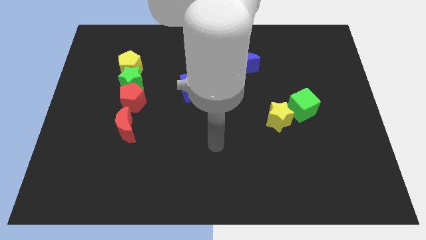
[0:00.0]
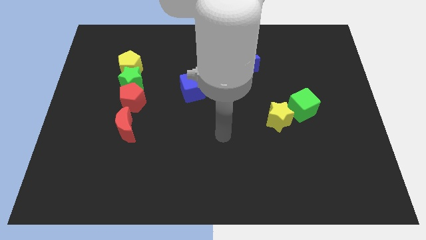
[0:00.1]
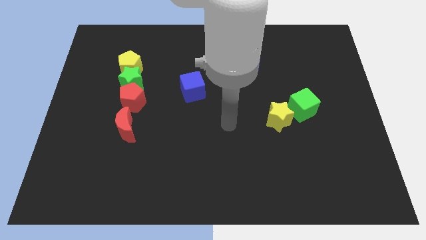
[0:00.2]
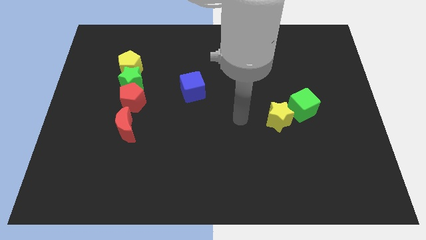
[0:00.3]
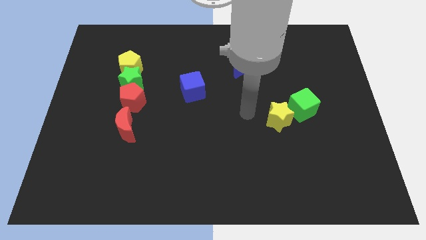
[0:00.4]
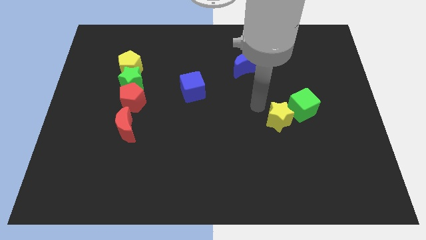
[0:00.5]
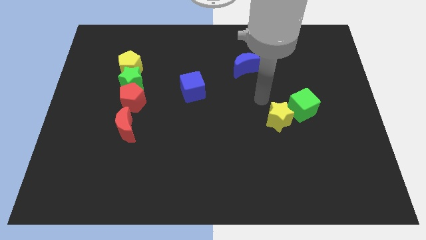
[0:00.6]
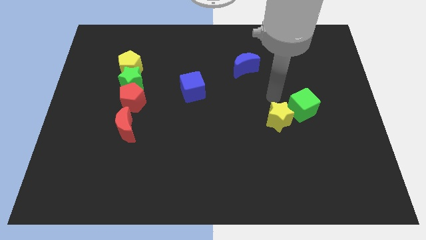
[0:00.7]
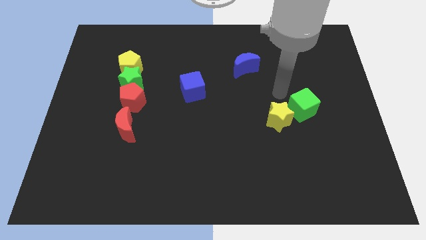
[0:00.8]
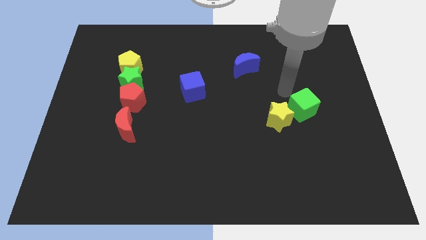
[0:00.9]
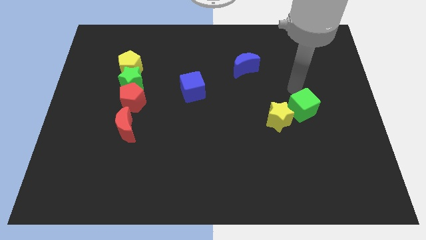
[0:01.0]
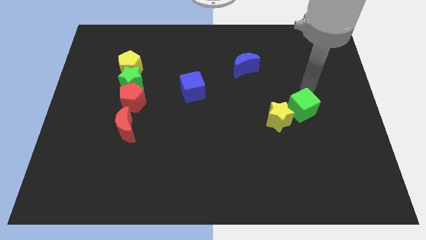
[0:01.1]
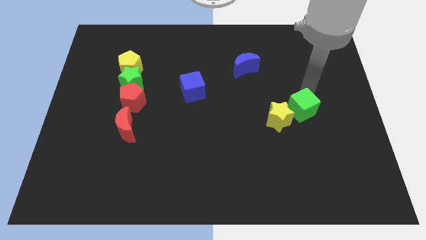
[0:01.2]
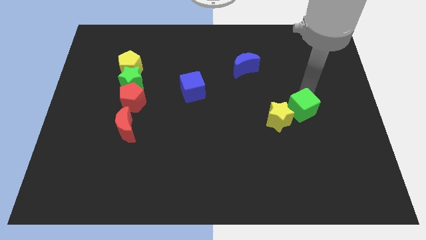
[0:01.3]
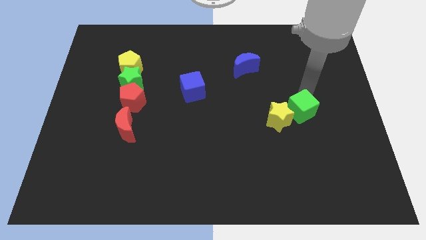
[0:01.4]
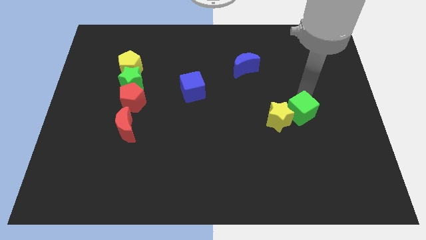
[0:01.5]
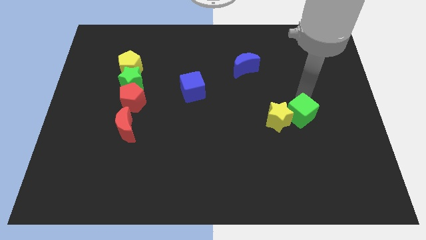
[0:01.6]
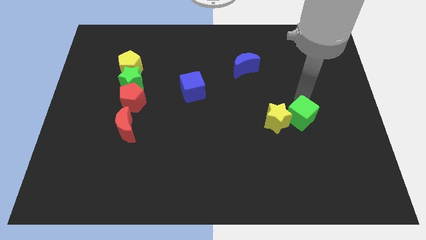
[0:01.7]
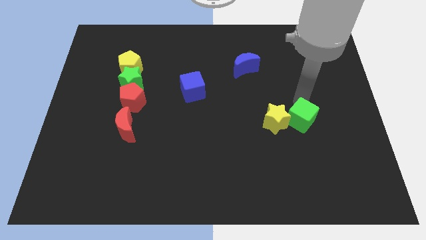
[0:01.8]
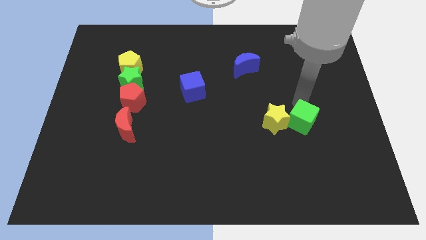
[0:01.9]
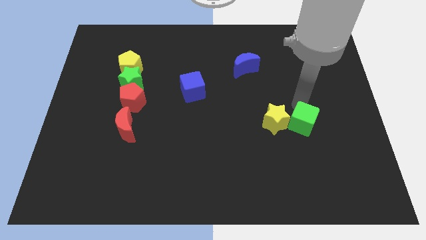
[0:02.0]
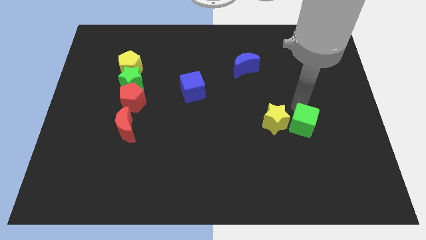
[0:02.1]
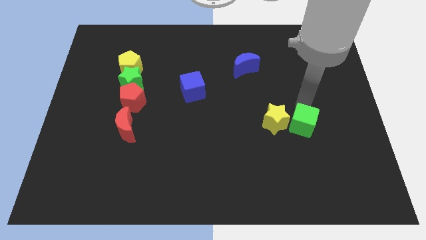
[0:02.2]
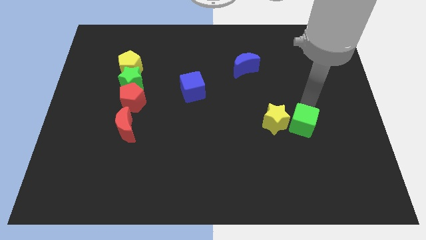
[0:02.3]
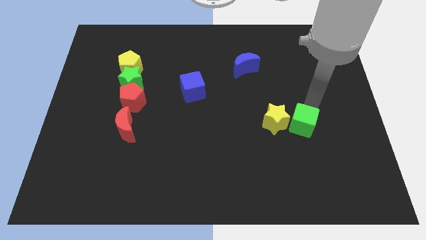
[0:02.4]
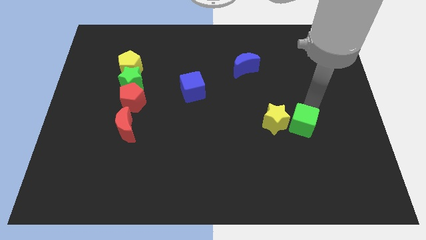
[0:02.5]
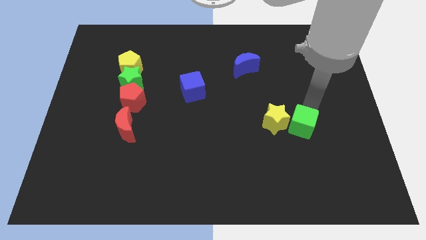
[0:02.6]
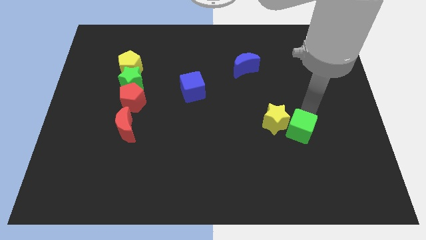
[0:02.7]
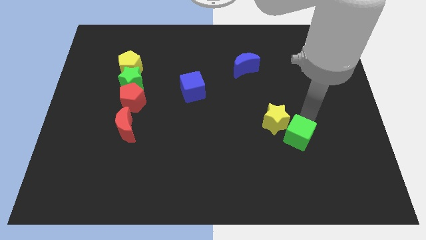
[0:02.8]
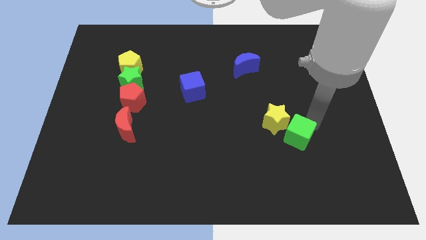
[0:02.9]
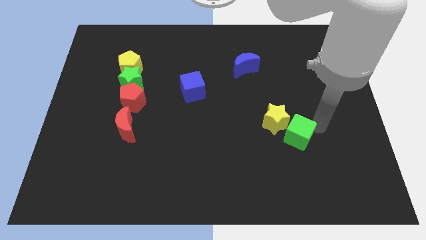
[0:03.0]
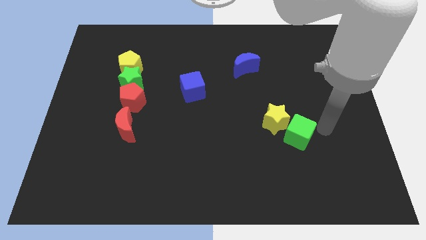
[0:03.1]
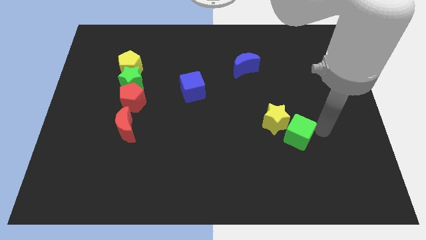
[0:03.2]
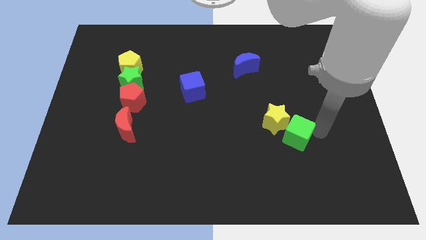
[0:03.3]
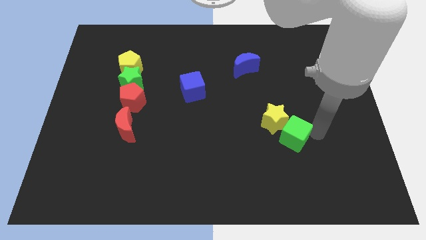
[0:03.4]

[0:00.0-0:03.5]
slide the green cube a little bit diagonally down and to the left

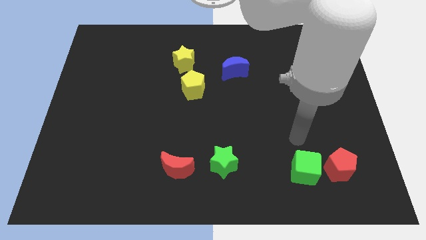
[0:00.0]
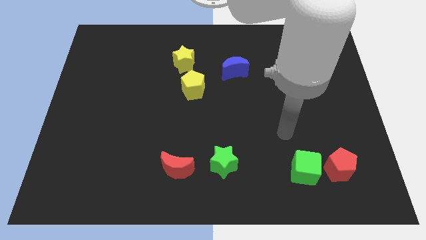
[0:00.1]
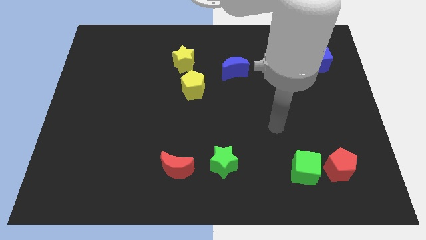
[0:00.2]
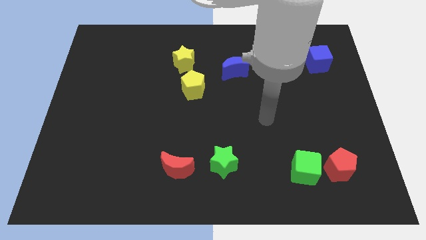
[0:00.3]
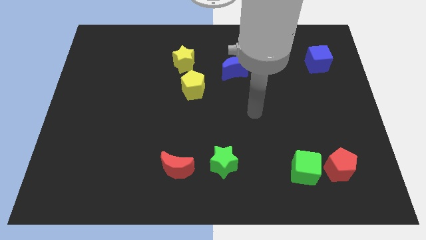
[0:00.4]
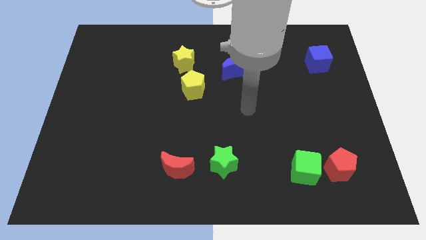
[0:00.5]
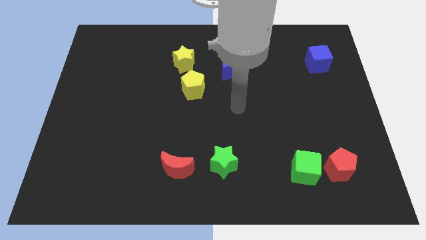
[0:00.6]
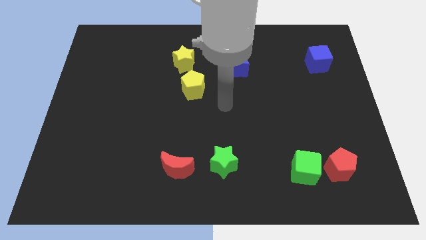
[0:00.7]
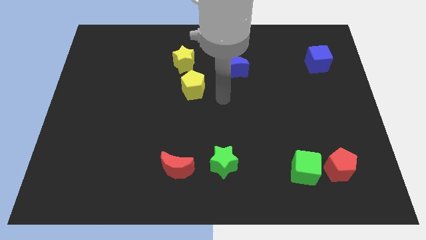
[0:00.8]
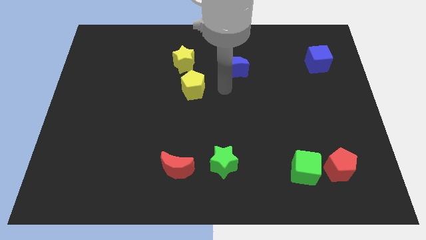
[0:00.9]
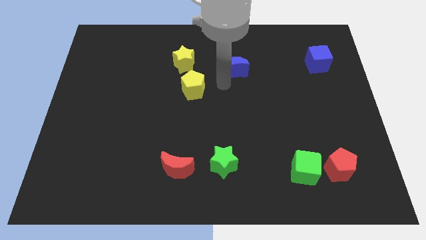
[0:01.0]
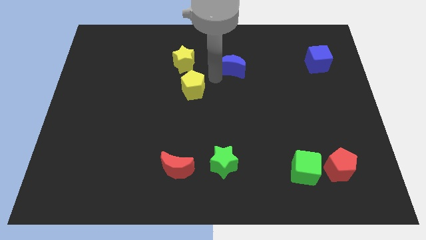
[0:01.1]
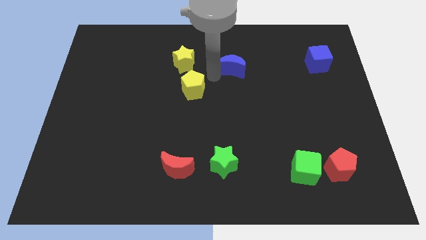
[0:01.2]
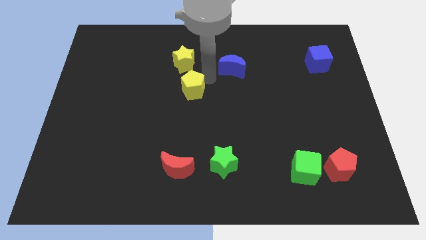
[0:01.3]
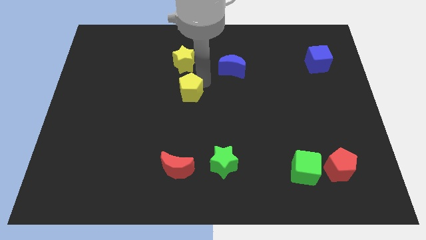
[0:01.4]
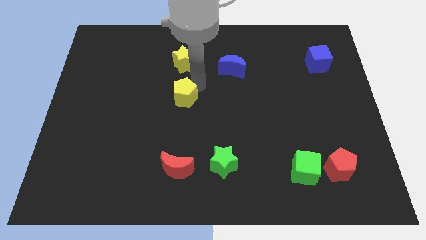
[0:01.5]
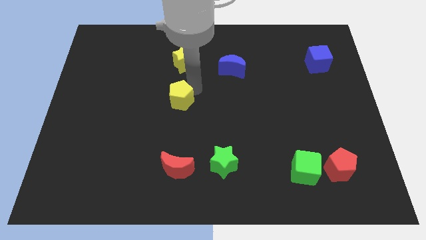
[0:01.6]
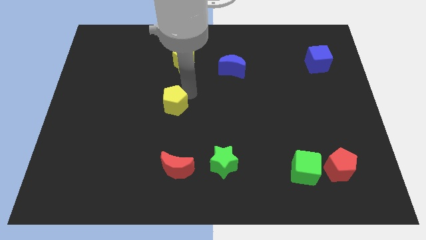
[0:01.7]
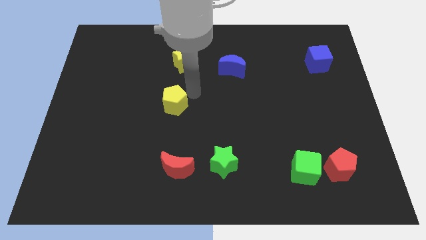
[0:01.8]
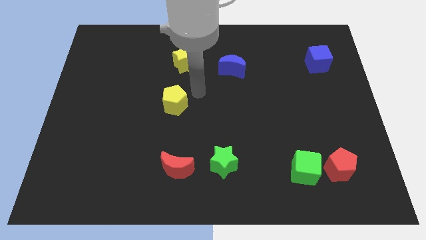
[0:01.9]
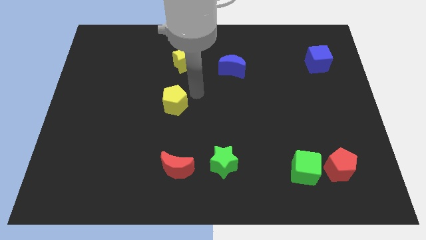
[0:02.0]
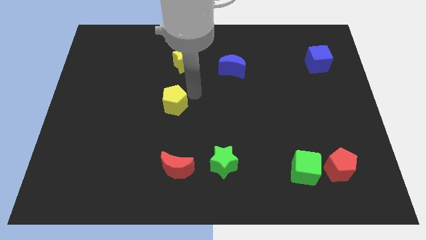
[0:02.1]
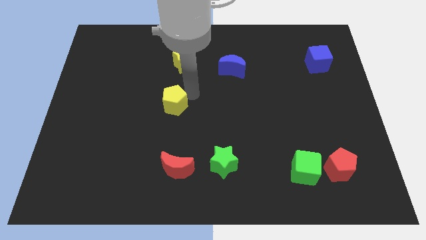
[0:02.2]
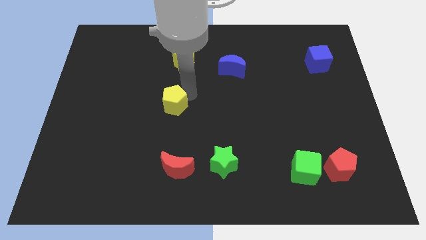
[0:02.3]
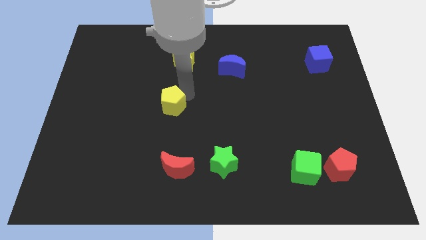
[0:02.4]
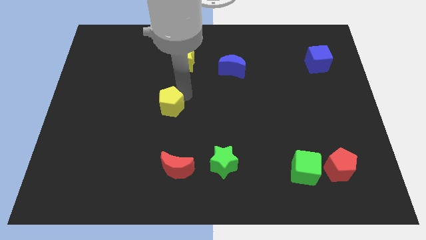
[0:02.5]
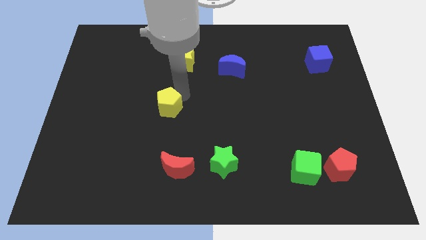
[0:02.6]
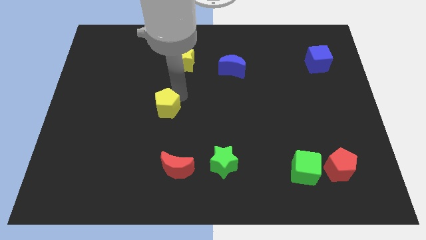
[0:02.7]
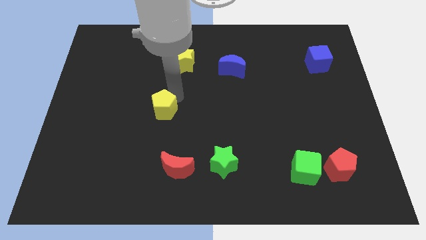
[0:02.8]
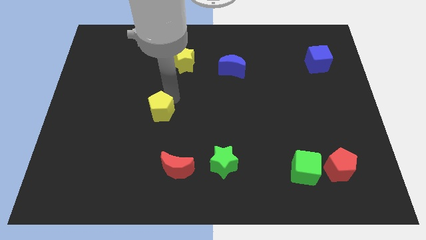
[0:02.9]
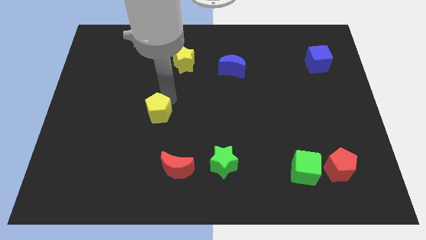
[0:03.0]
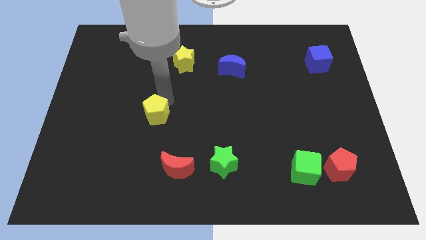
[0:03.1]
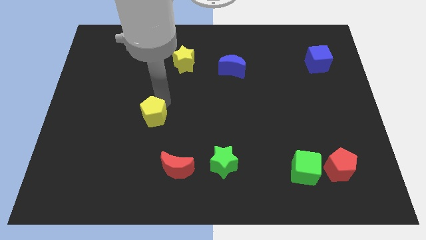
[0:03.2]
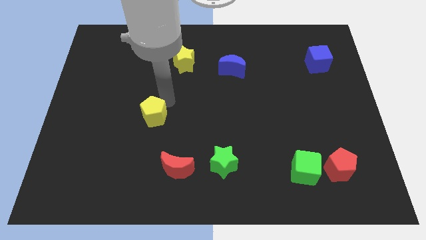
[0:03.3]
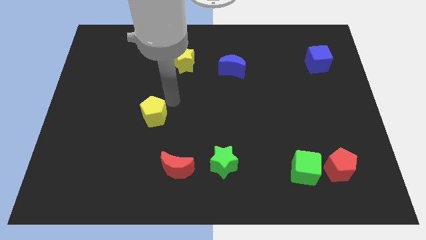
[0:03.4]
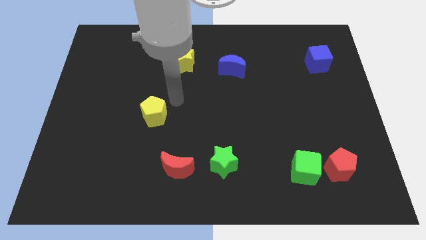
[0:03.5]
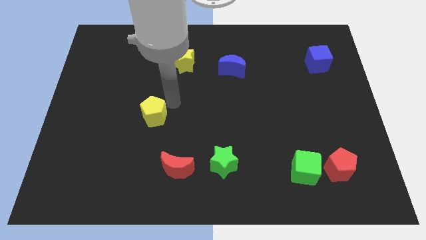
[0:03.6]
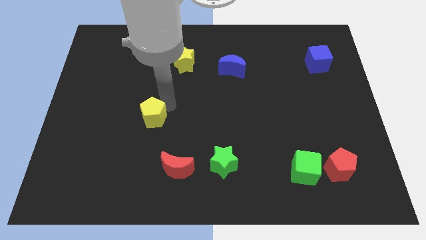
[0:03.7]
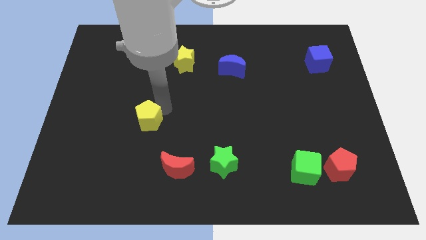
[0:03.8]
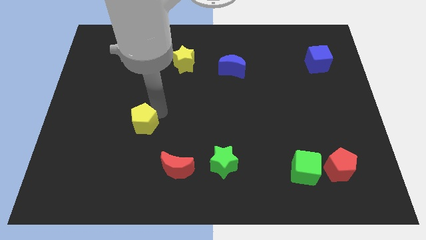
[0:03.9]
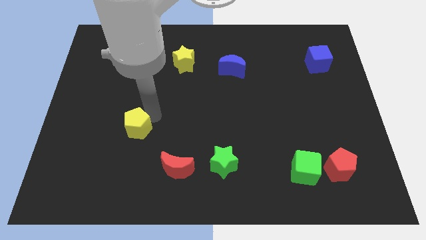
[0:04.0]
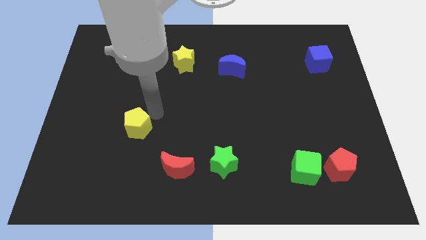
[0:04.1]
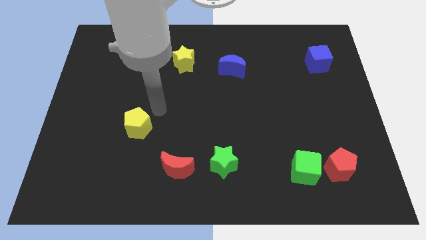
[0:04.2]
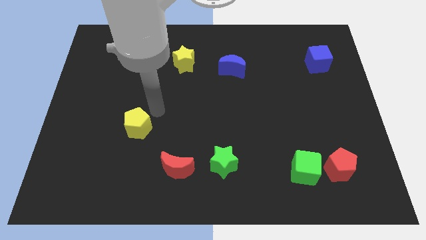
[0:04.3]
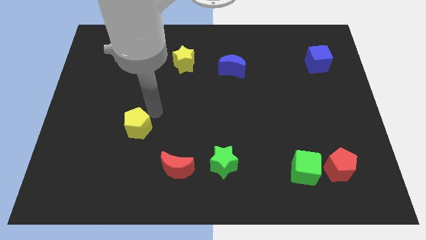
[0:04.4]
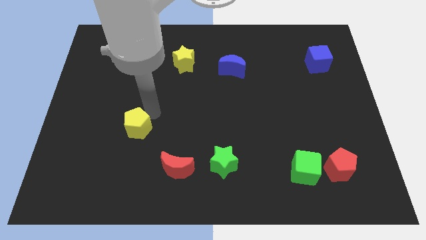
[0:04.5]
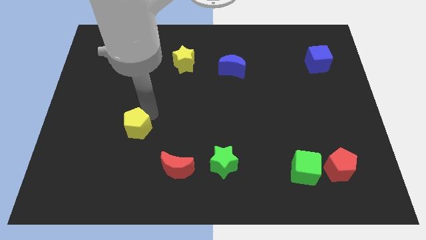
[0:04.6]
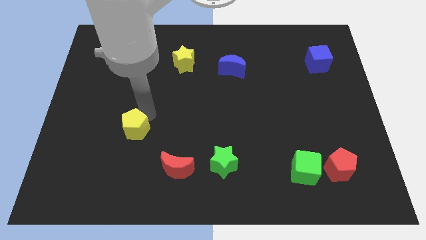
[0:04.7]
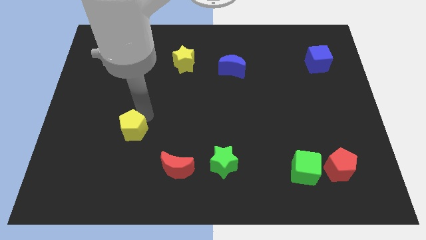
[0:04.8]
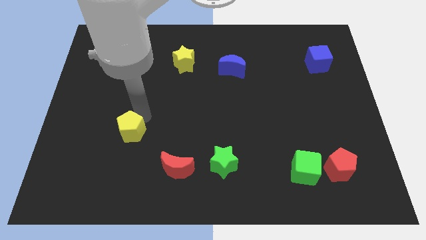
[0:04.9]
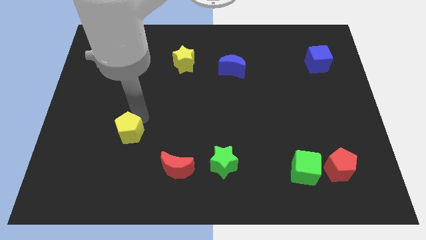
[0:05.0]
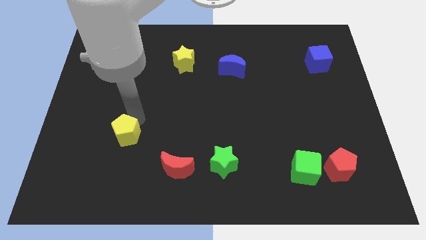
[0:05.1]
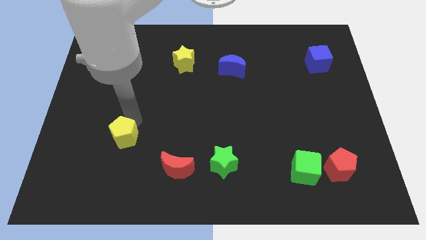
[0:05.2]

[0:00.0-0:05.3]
move the yellow pentagon diagonally downwards and to the left
